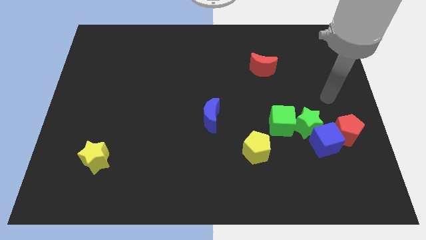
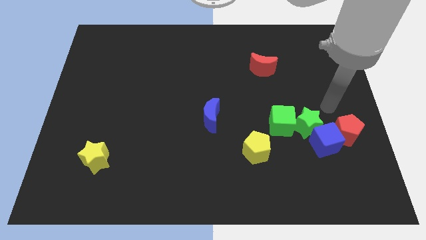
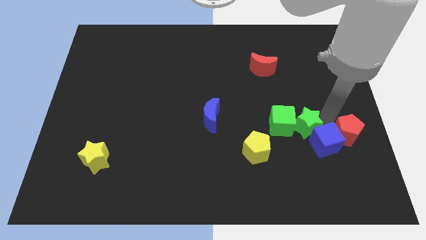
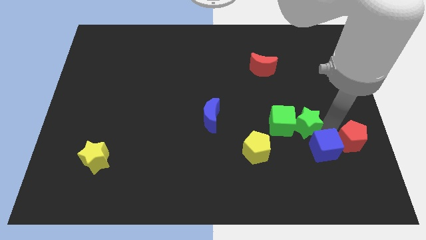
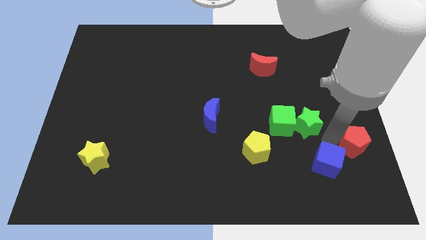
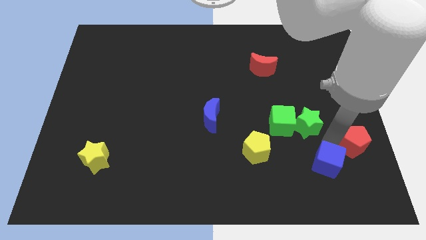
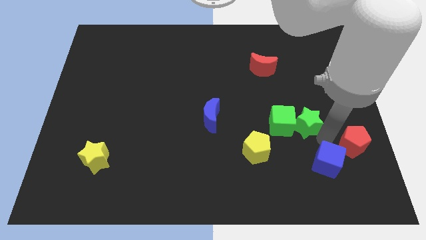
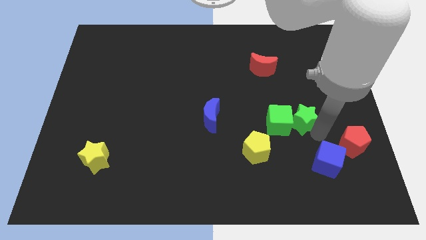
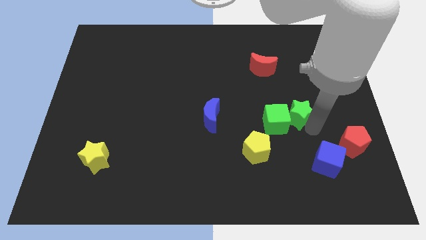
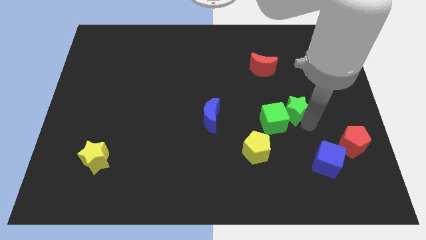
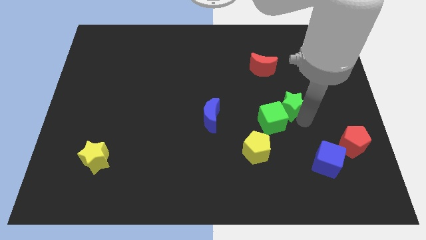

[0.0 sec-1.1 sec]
separate the green star from the blue cube, green cube, and red pentagon

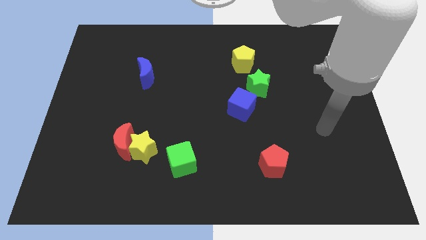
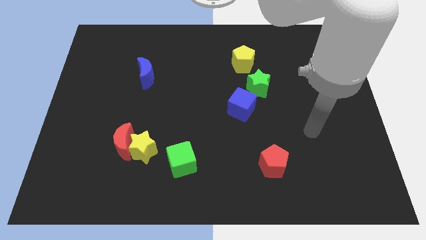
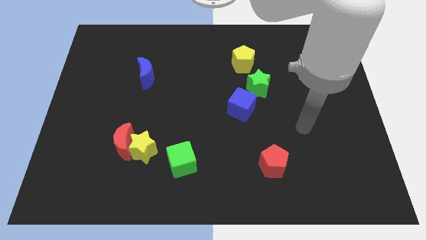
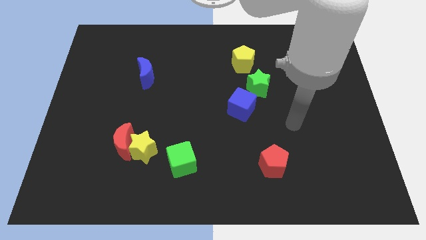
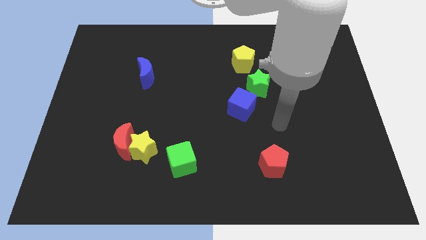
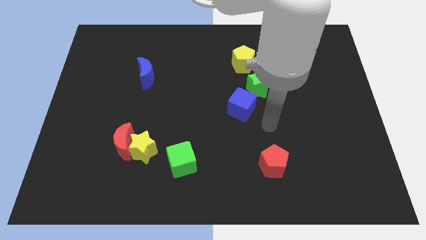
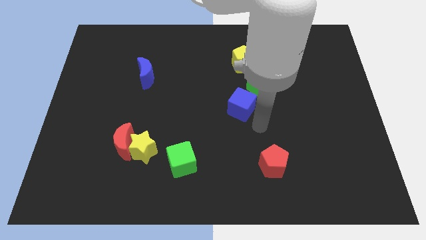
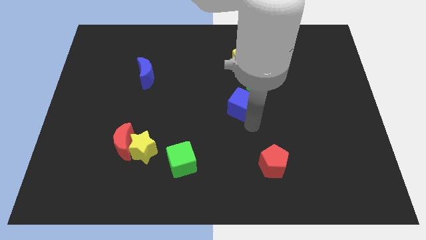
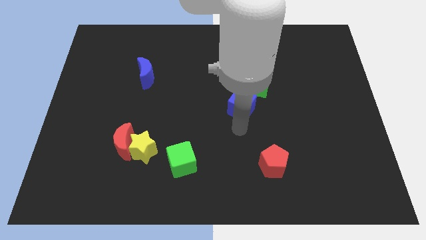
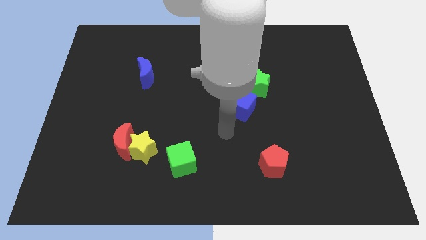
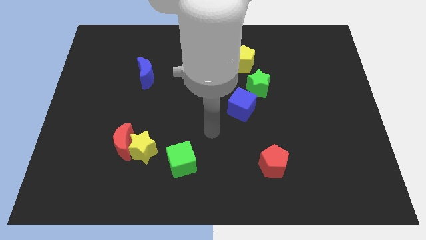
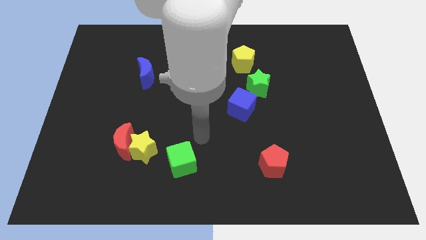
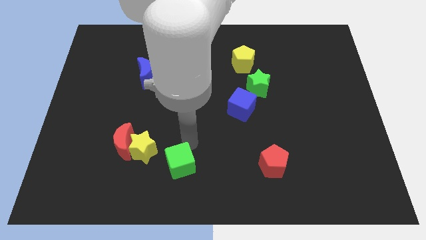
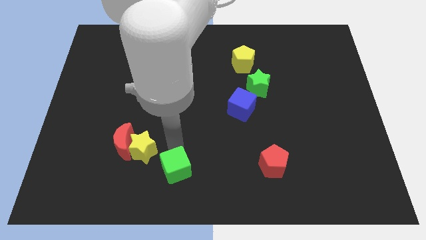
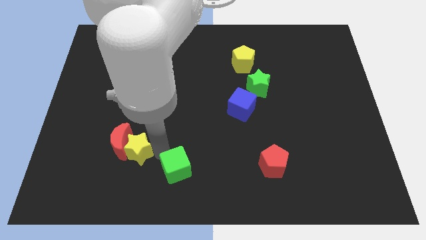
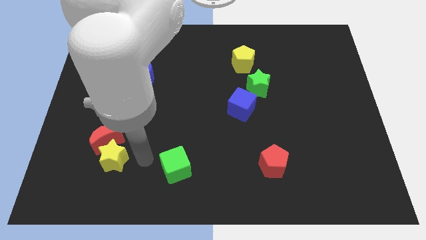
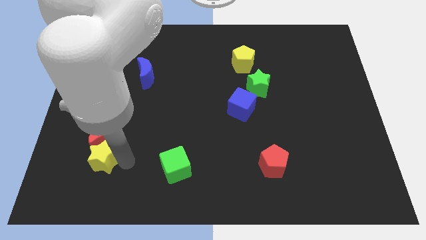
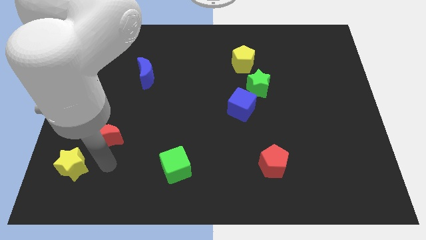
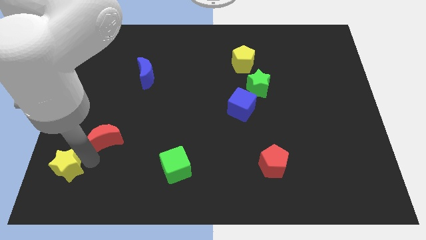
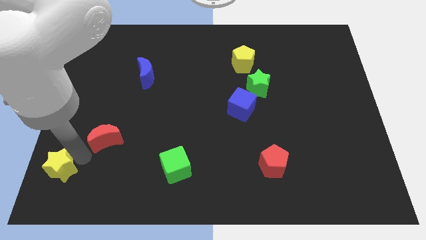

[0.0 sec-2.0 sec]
pull the red moon apart from the yellow star

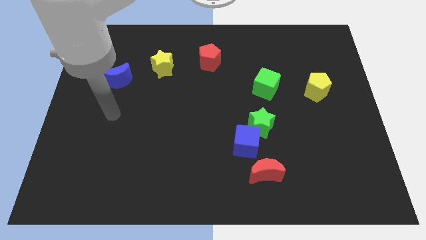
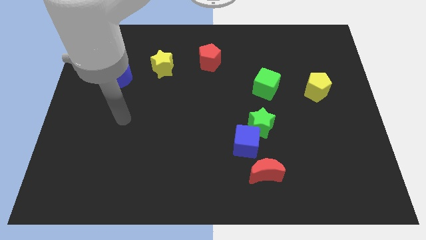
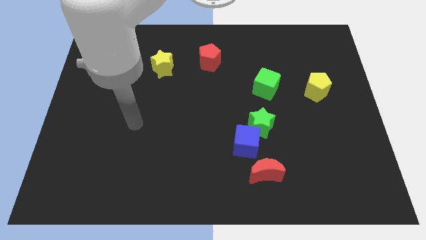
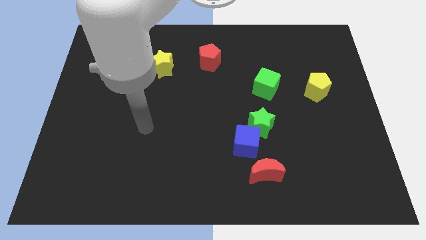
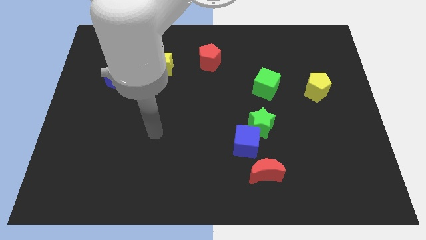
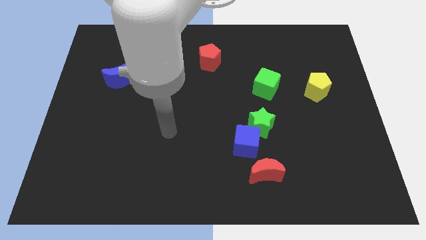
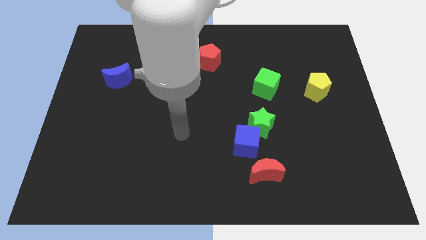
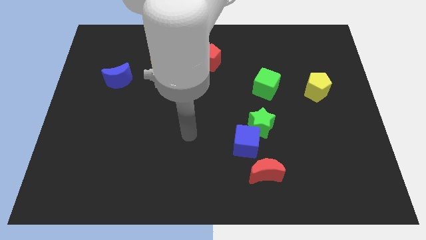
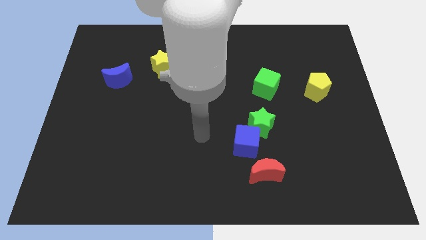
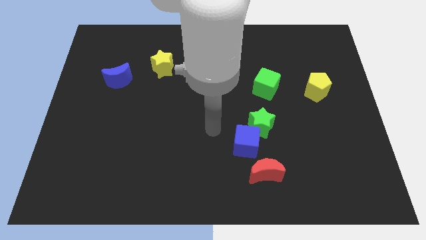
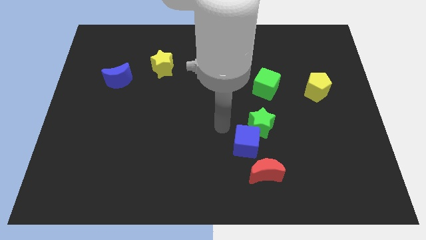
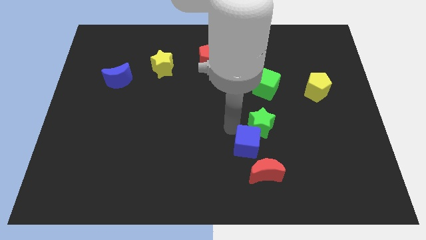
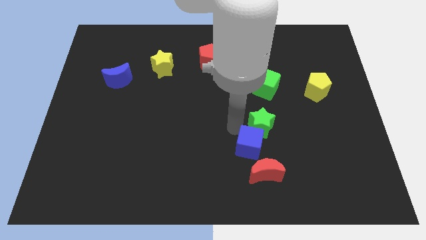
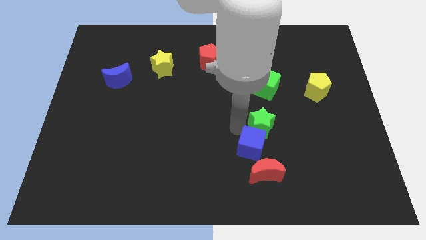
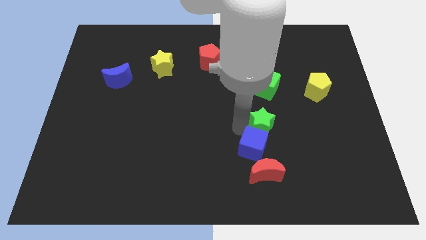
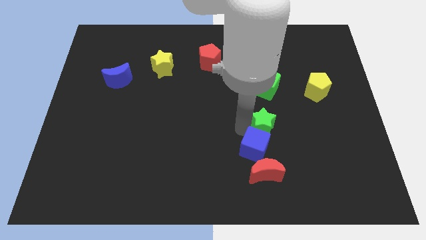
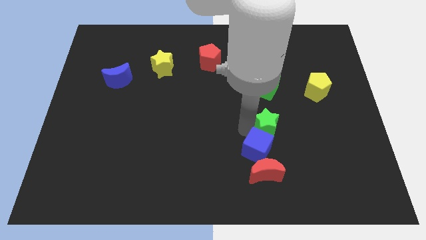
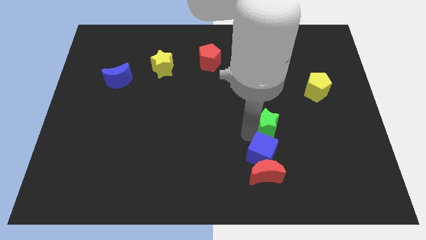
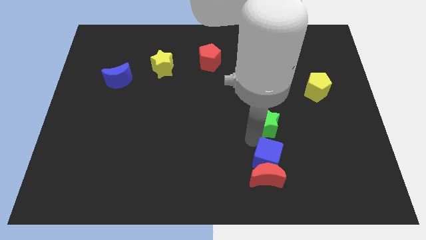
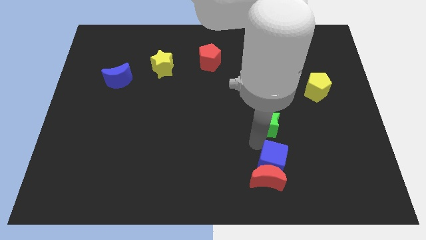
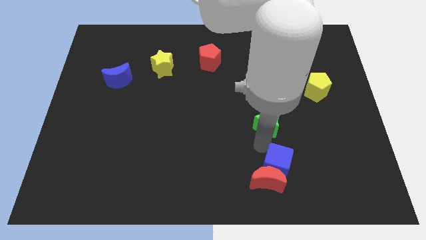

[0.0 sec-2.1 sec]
separate the green star from the blue cube

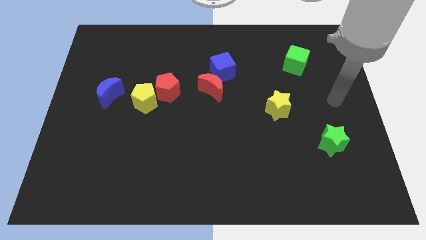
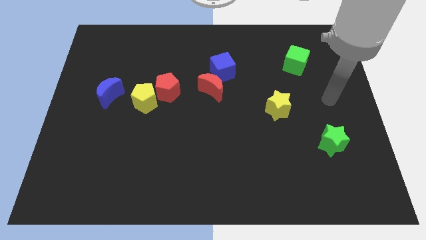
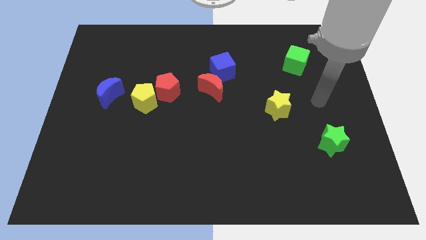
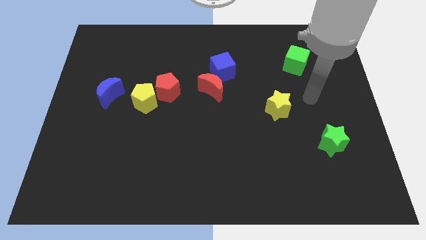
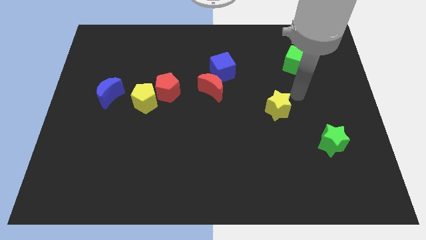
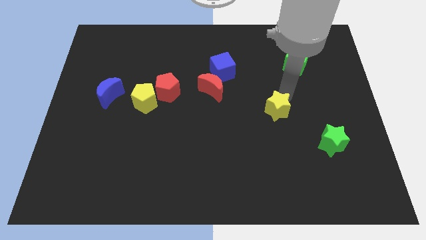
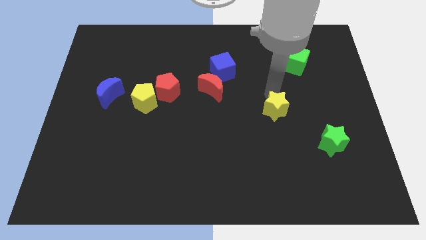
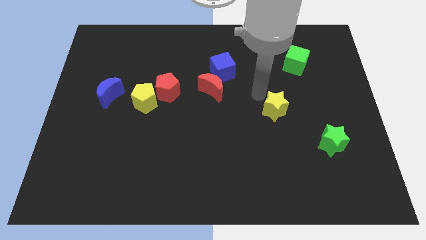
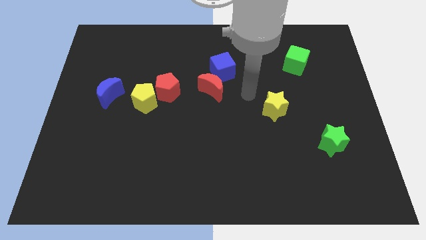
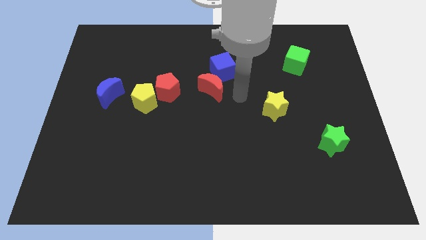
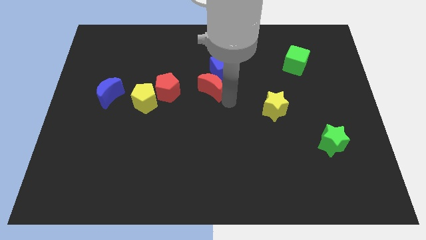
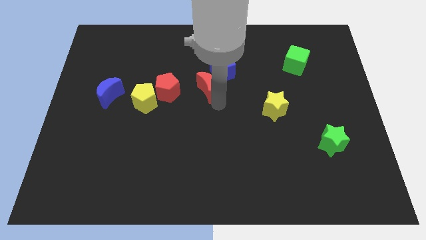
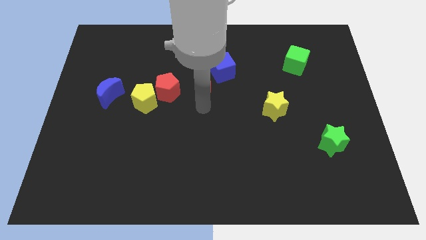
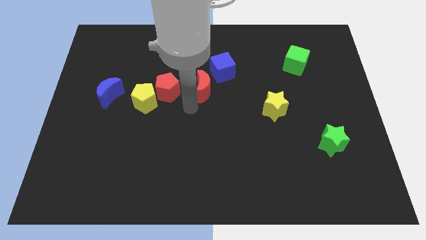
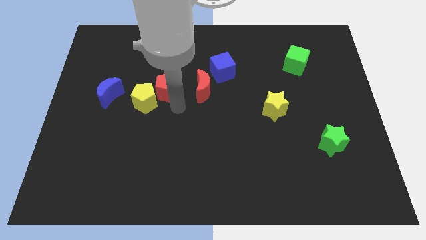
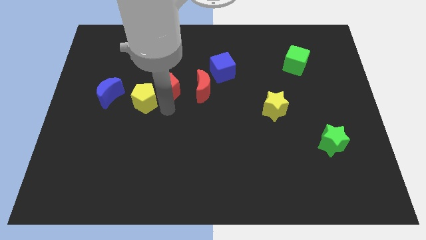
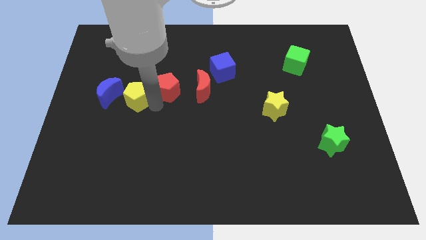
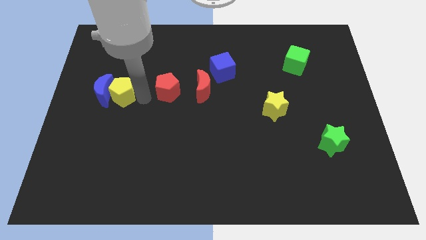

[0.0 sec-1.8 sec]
separate the red pentagon from the yellow pentagon

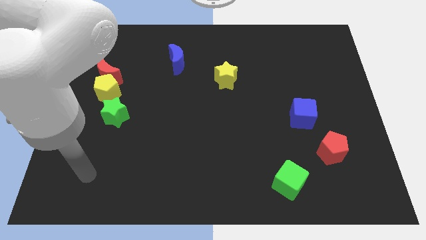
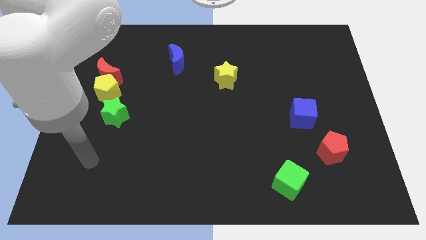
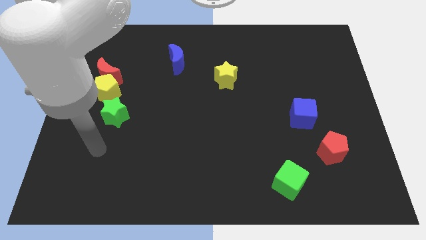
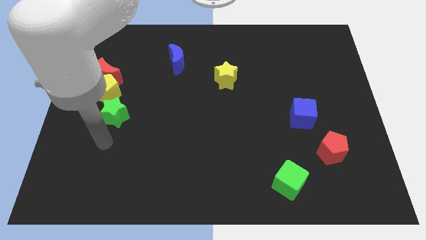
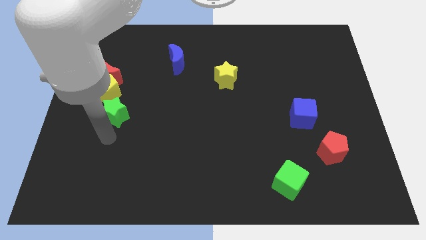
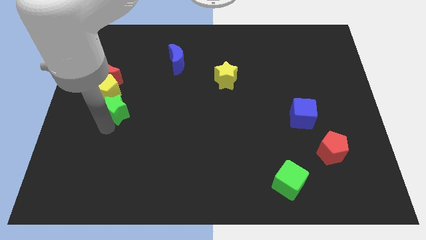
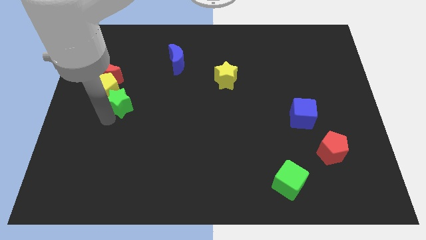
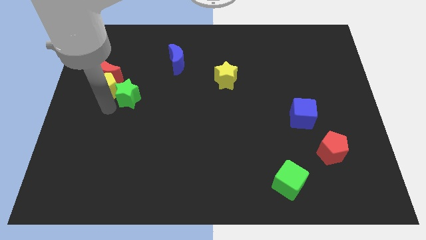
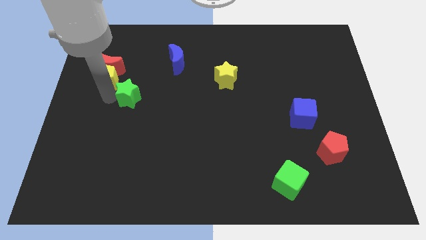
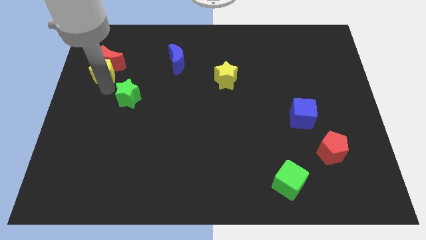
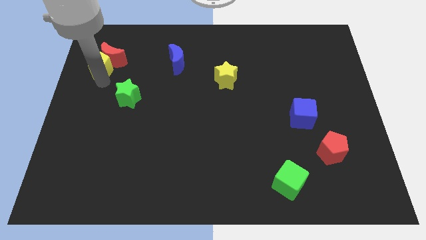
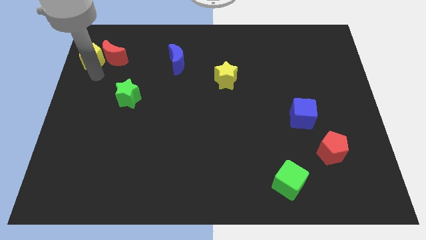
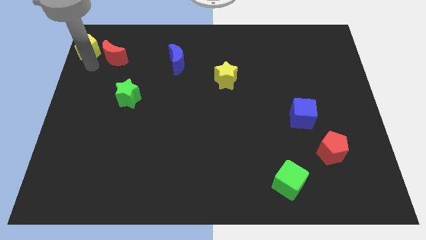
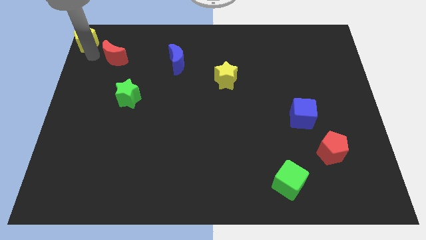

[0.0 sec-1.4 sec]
move the red moon away from the yellow pentagon

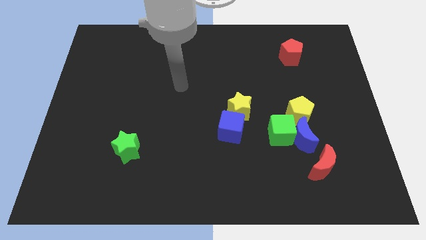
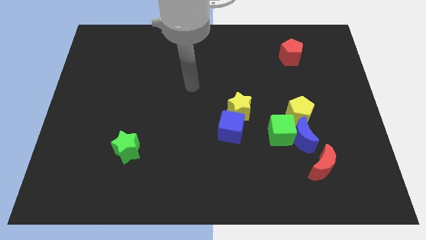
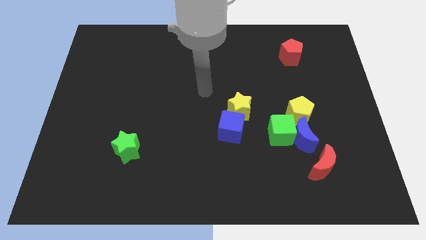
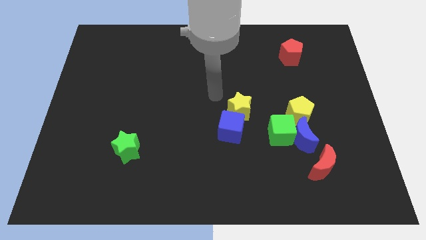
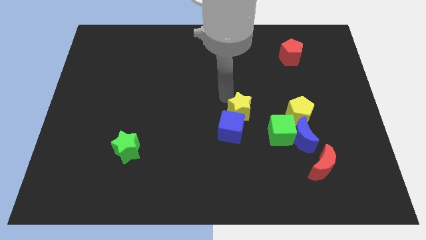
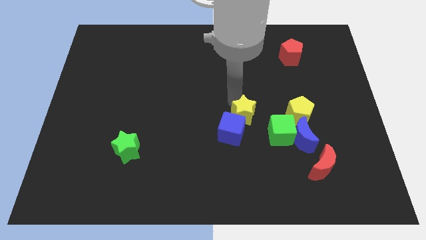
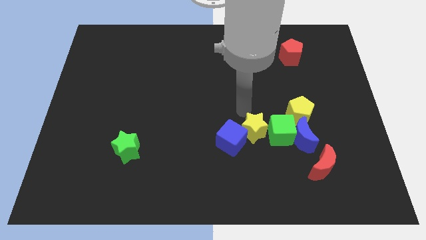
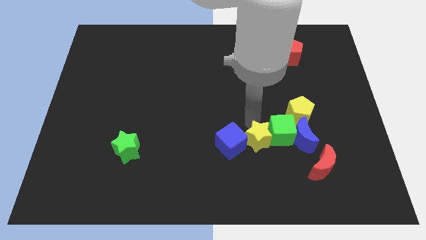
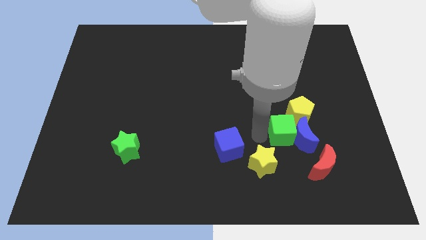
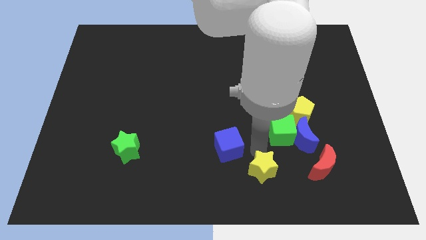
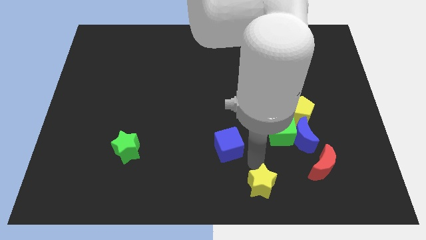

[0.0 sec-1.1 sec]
move the blue cube away from the yellow star

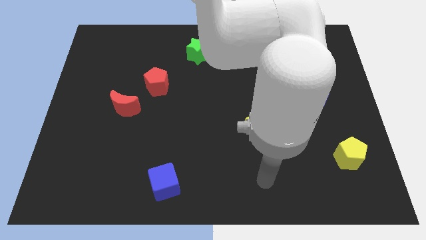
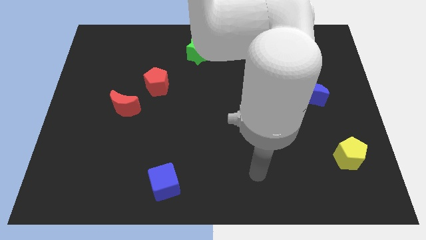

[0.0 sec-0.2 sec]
pull the red moon apart from the red pentagon
